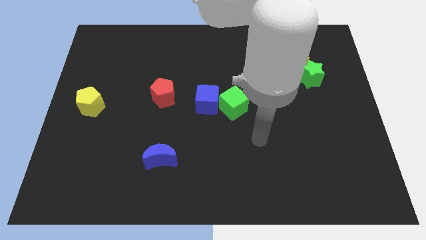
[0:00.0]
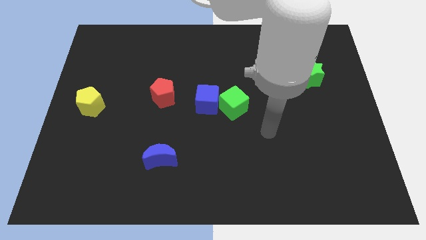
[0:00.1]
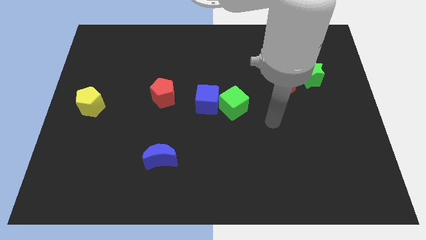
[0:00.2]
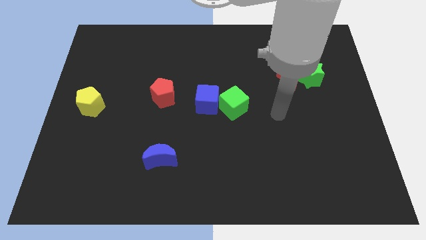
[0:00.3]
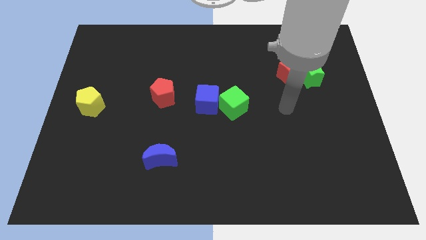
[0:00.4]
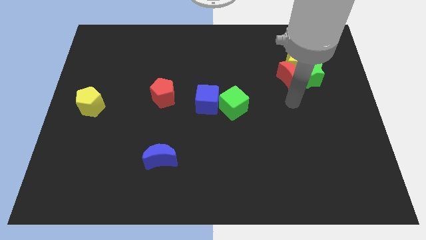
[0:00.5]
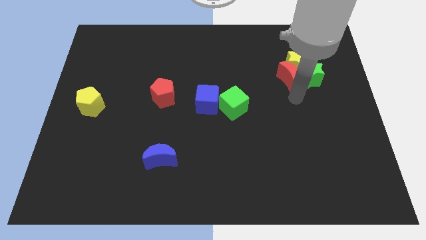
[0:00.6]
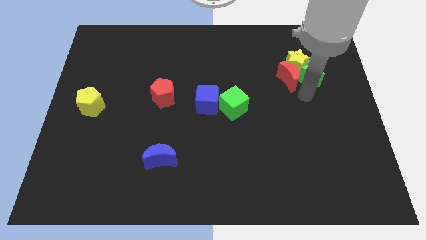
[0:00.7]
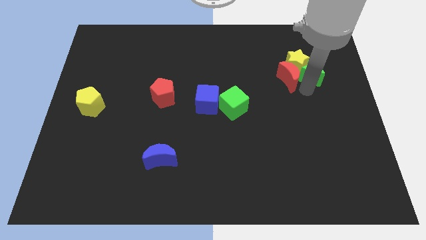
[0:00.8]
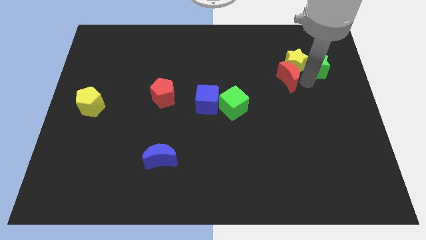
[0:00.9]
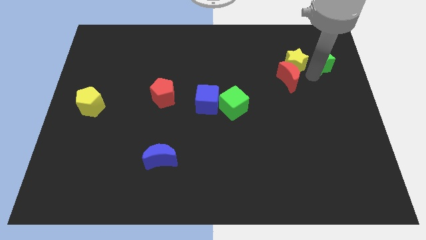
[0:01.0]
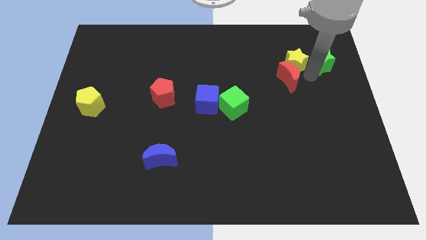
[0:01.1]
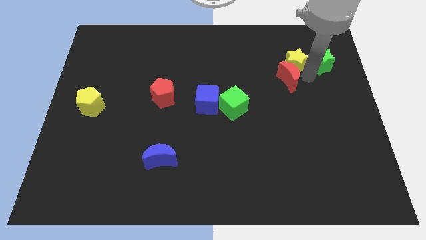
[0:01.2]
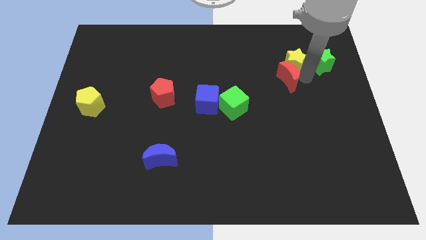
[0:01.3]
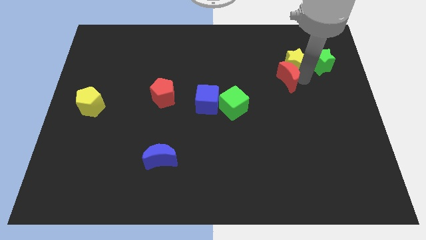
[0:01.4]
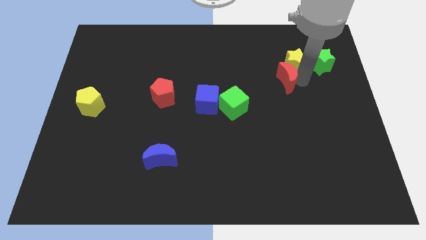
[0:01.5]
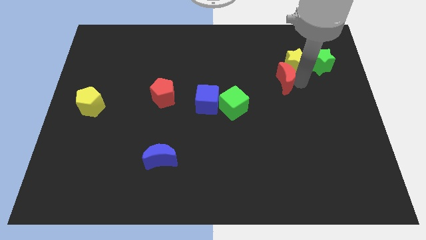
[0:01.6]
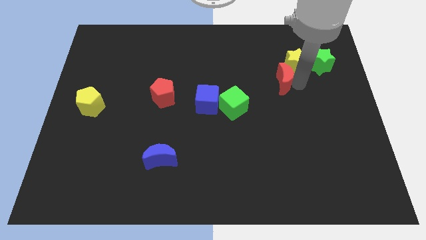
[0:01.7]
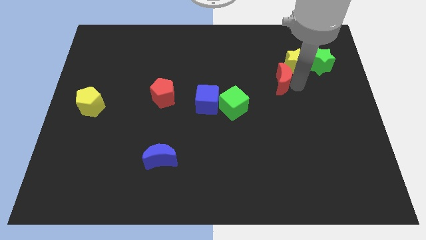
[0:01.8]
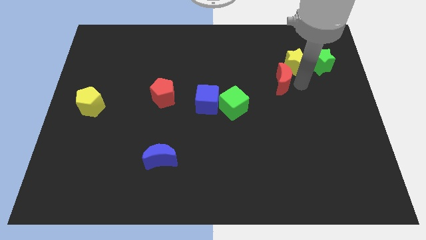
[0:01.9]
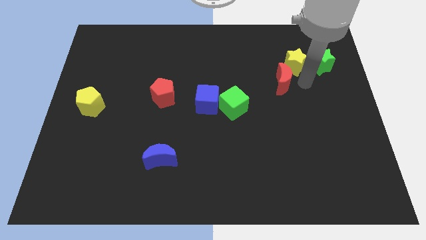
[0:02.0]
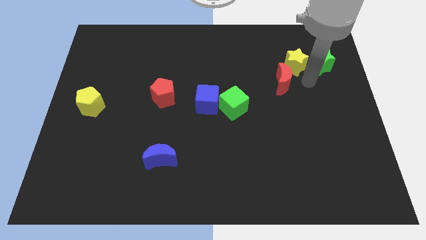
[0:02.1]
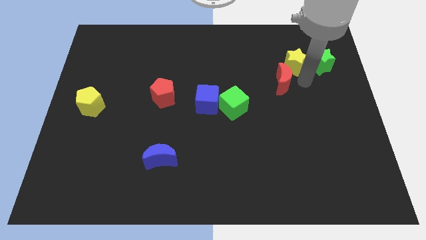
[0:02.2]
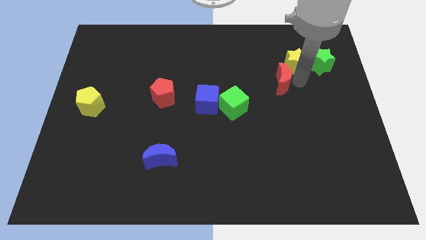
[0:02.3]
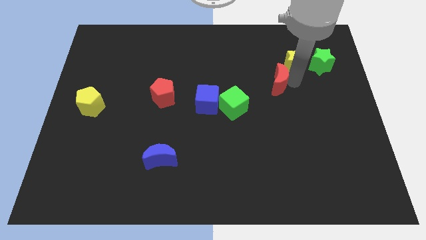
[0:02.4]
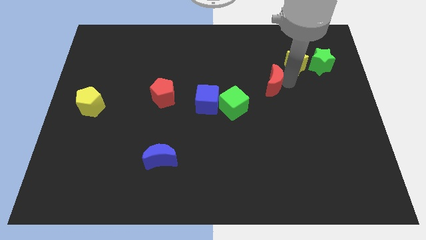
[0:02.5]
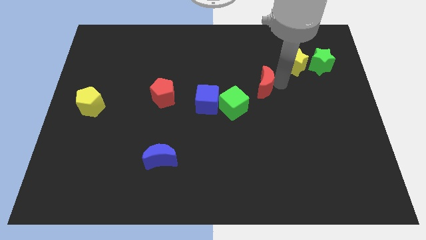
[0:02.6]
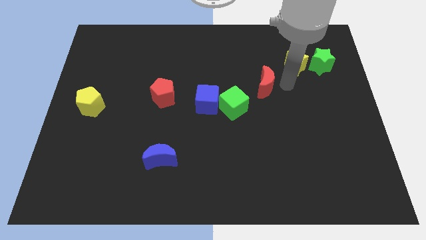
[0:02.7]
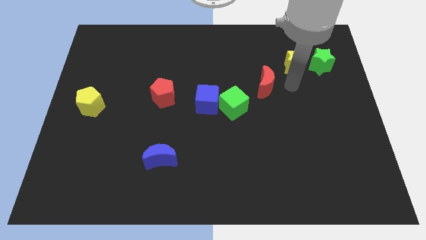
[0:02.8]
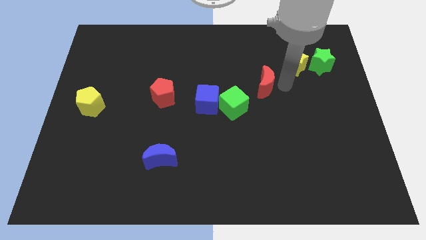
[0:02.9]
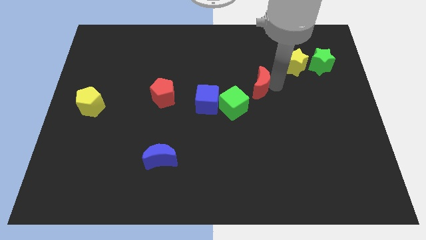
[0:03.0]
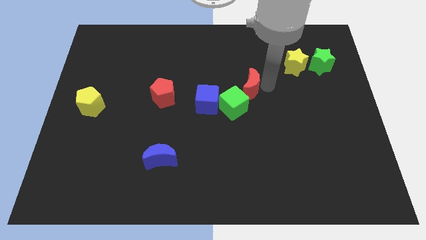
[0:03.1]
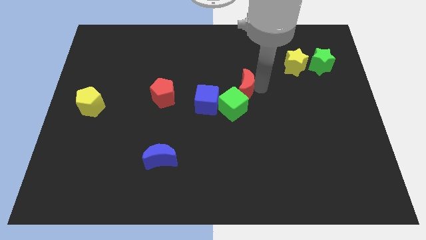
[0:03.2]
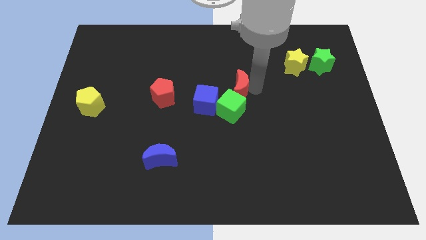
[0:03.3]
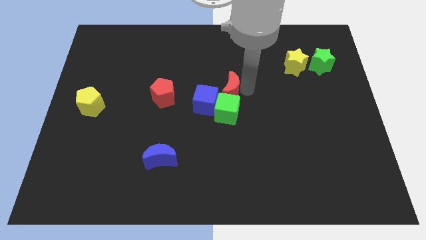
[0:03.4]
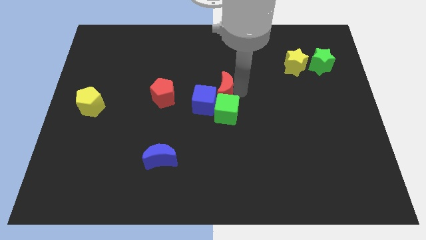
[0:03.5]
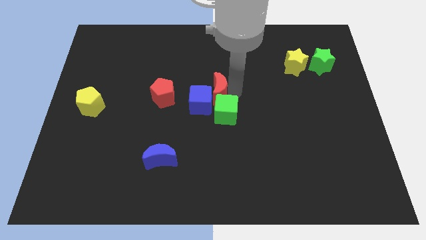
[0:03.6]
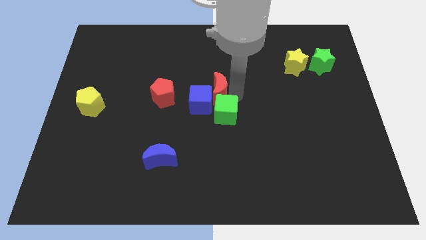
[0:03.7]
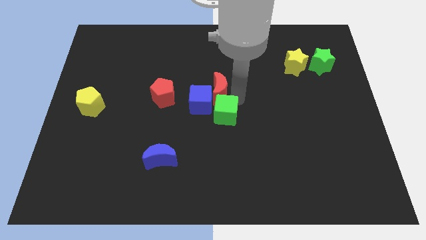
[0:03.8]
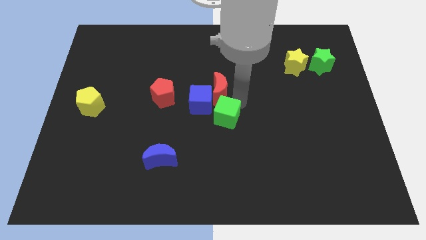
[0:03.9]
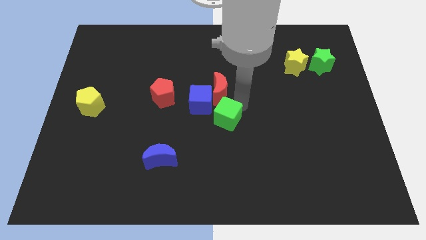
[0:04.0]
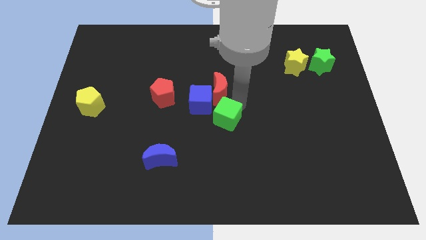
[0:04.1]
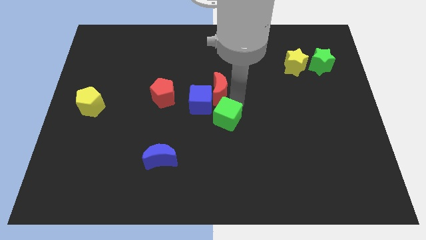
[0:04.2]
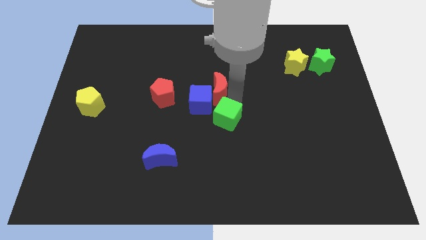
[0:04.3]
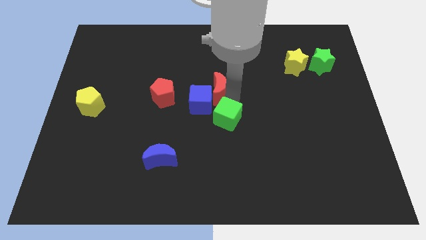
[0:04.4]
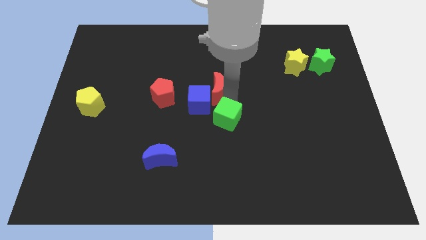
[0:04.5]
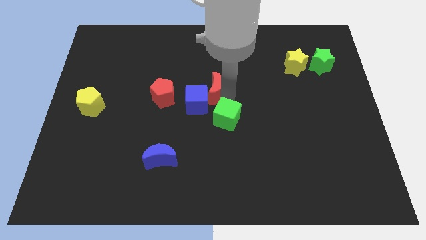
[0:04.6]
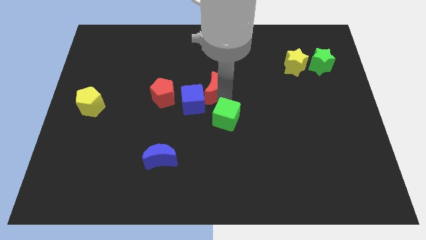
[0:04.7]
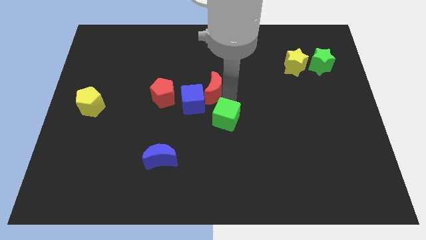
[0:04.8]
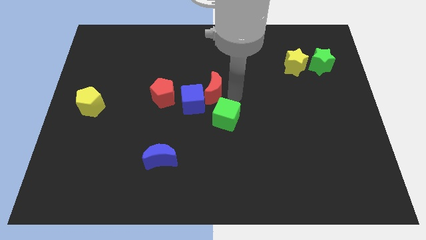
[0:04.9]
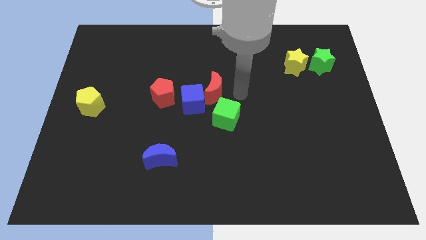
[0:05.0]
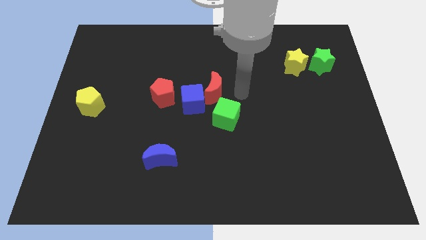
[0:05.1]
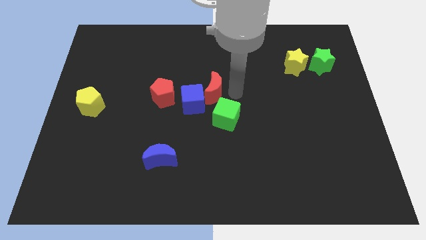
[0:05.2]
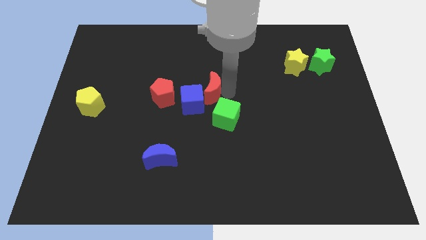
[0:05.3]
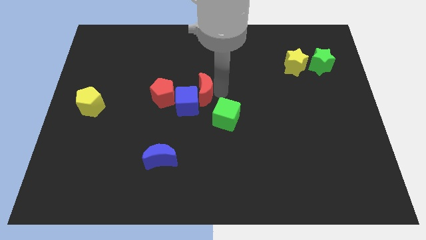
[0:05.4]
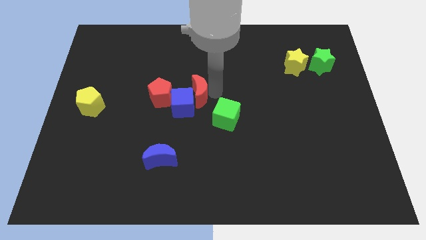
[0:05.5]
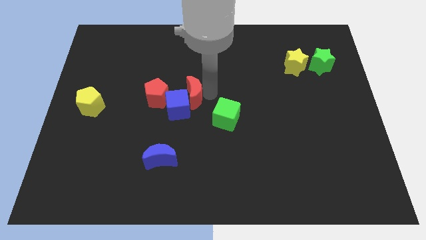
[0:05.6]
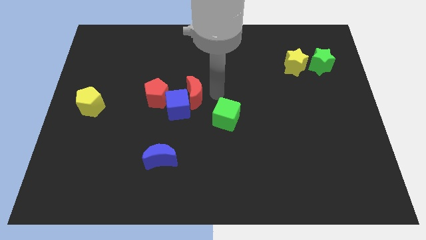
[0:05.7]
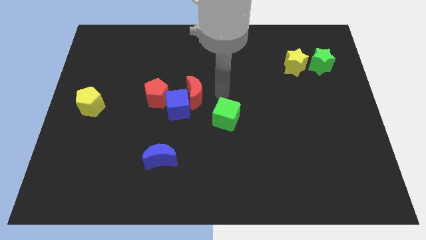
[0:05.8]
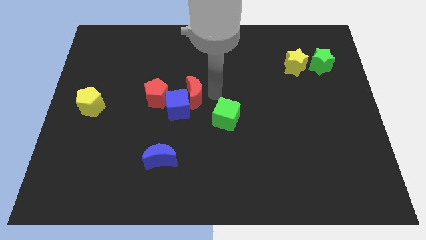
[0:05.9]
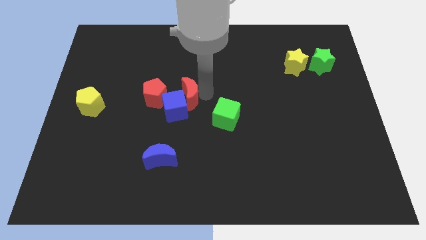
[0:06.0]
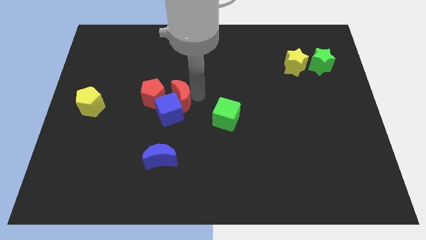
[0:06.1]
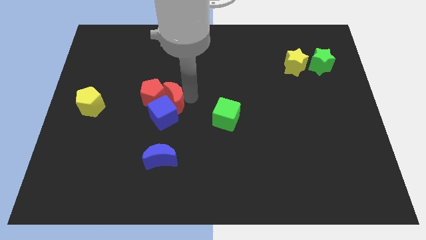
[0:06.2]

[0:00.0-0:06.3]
slide the red moon close to the red pentagon

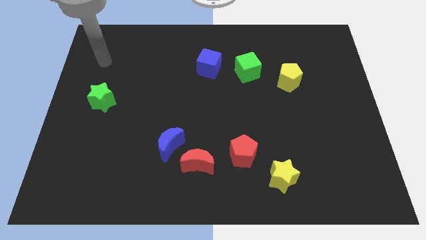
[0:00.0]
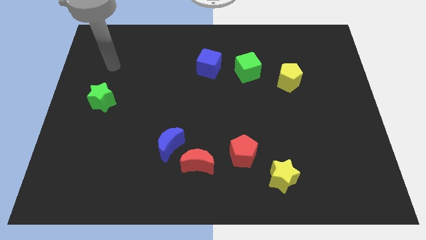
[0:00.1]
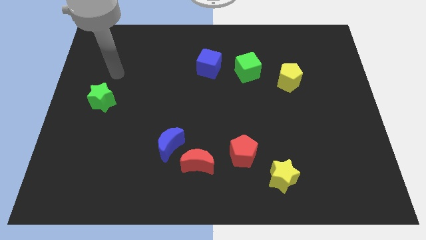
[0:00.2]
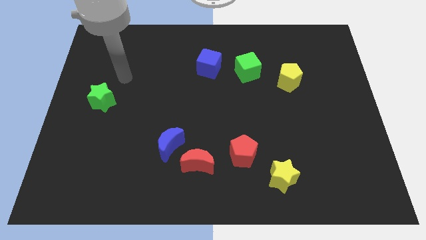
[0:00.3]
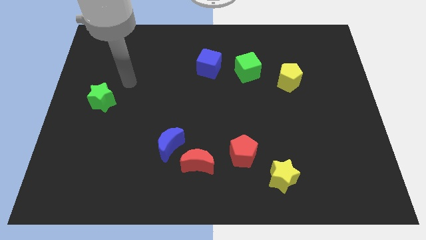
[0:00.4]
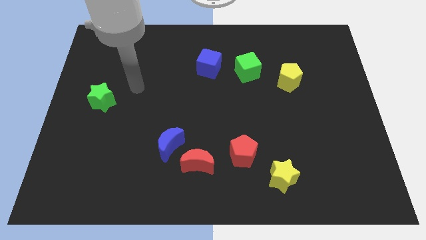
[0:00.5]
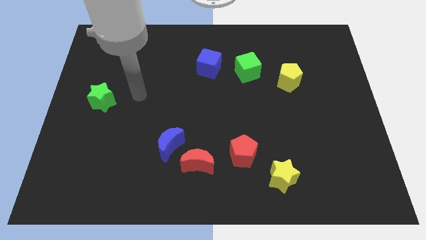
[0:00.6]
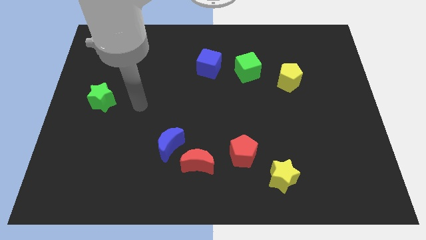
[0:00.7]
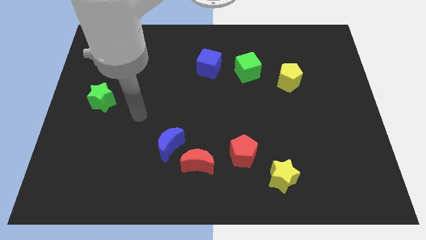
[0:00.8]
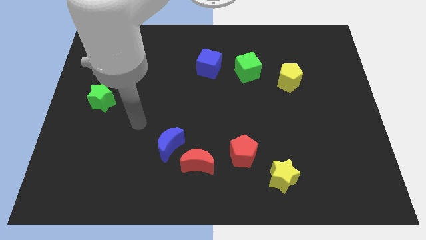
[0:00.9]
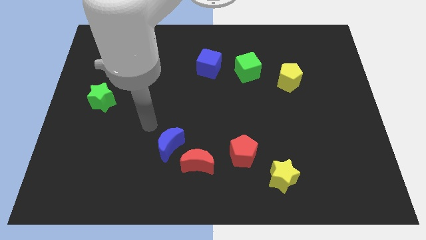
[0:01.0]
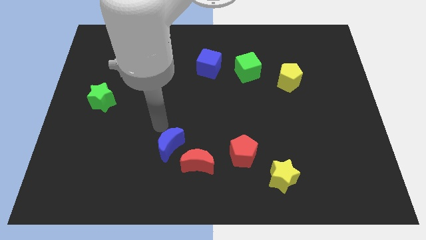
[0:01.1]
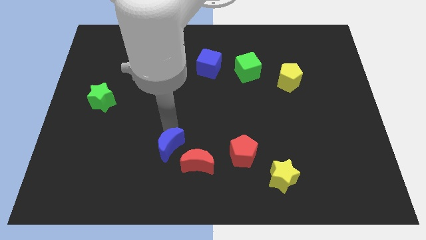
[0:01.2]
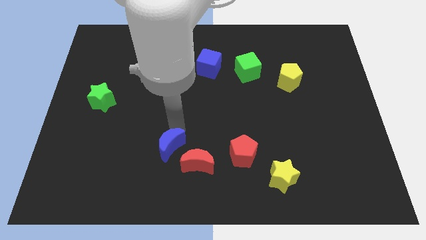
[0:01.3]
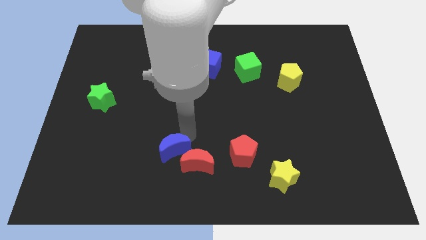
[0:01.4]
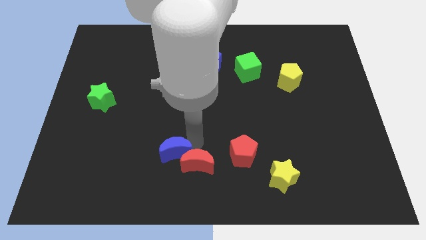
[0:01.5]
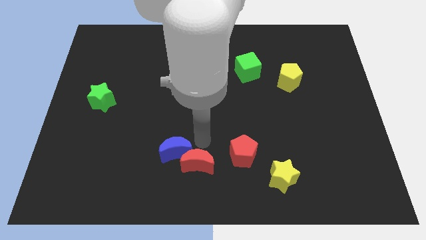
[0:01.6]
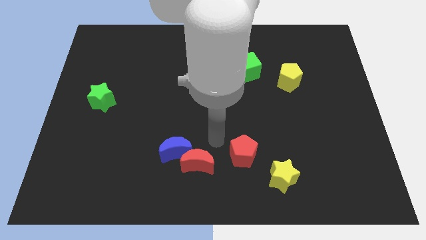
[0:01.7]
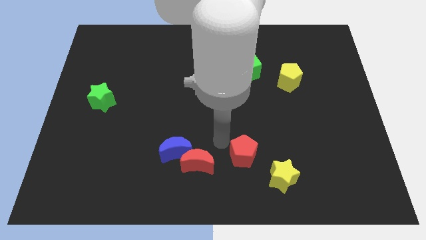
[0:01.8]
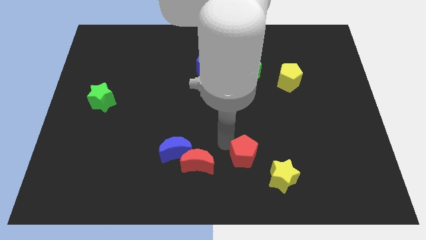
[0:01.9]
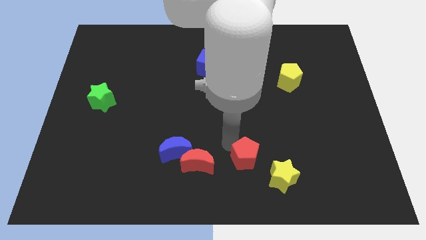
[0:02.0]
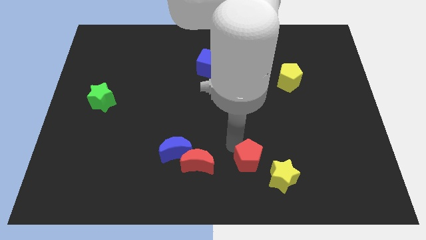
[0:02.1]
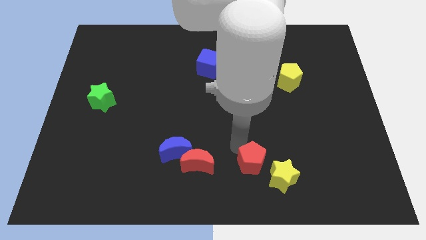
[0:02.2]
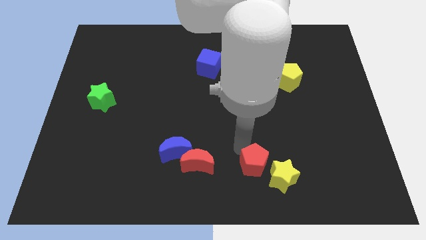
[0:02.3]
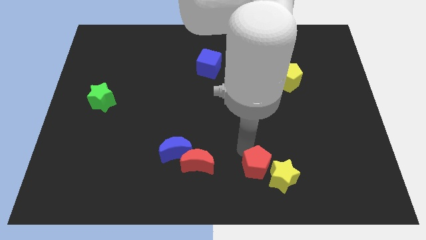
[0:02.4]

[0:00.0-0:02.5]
push the red pentagon towards the yellow star
